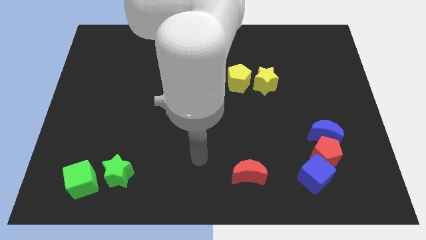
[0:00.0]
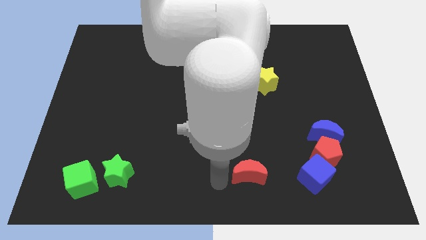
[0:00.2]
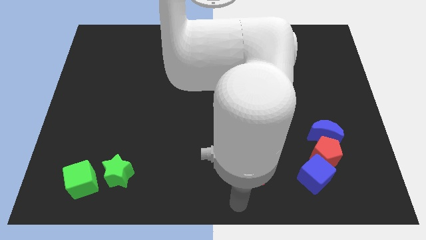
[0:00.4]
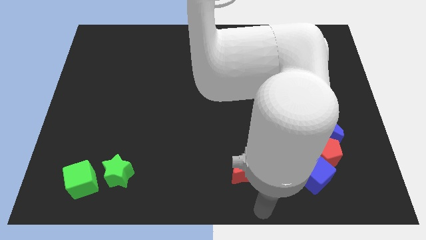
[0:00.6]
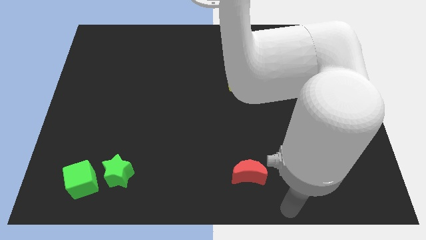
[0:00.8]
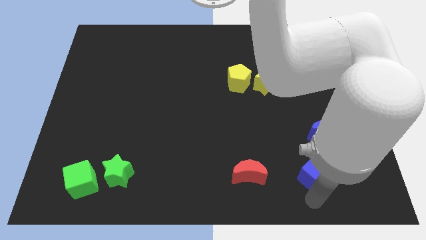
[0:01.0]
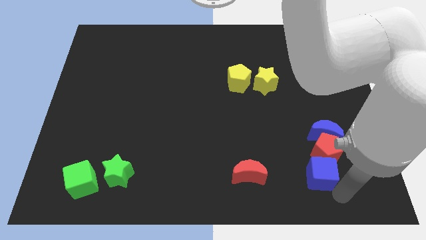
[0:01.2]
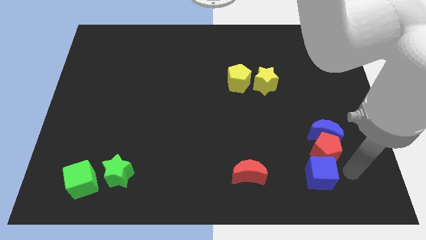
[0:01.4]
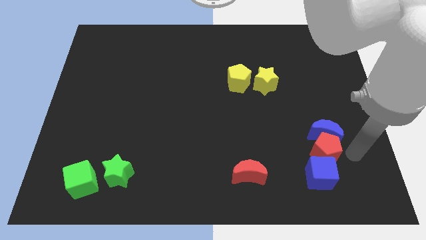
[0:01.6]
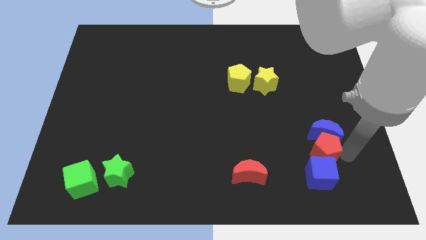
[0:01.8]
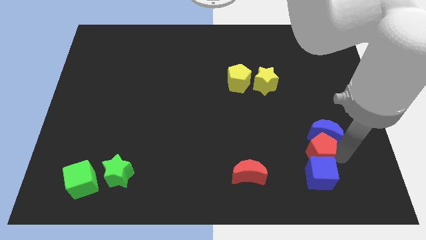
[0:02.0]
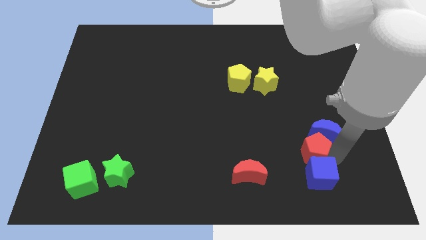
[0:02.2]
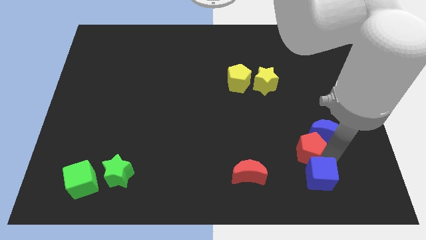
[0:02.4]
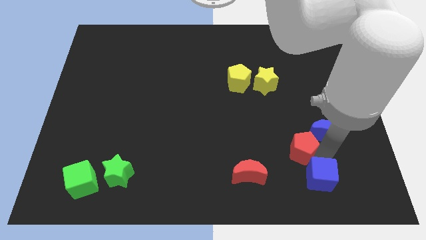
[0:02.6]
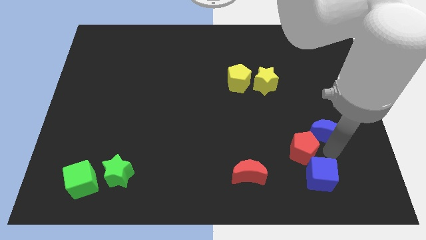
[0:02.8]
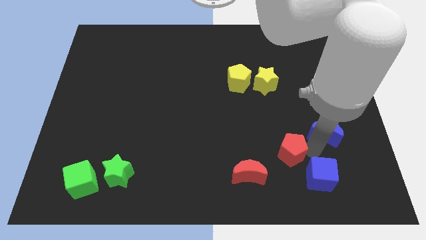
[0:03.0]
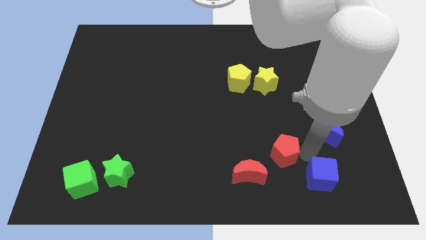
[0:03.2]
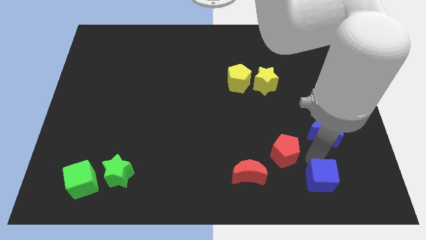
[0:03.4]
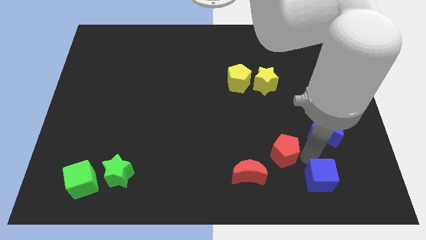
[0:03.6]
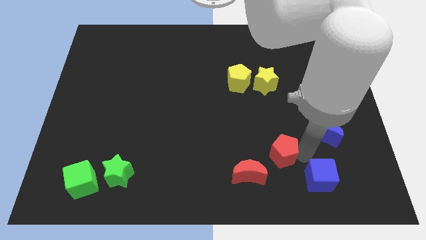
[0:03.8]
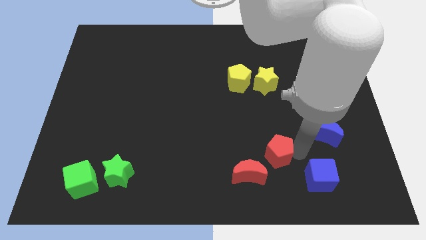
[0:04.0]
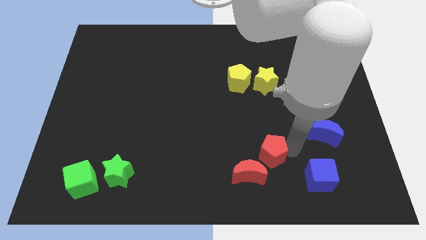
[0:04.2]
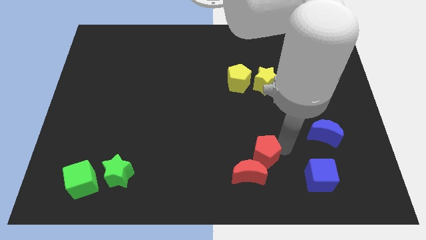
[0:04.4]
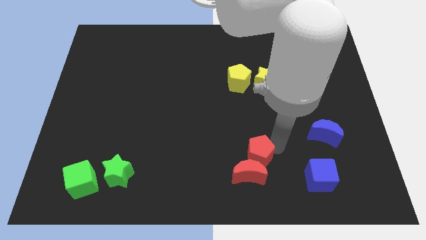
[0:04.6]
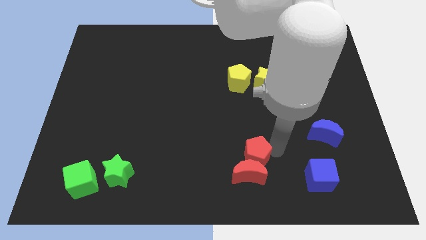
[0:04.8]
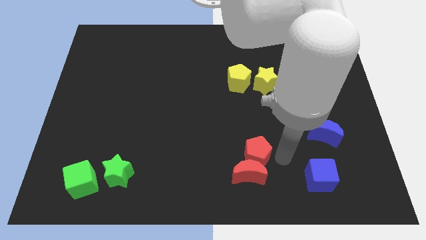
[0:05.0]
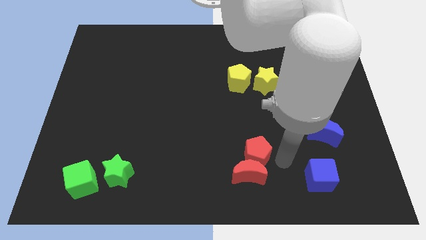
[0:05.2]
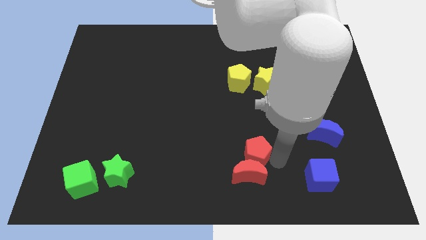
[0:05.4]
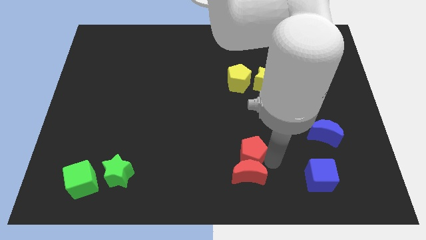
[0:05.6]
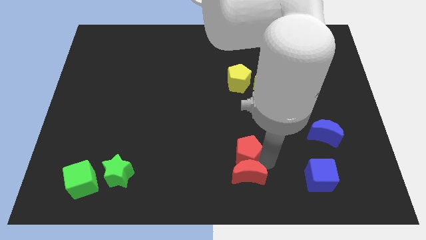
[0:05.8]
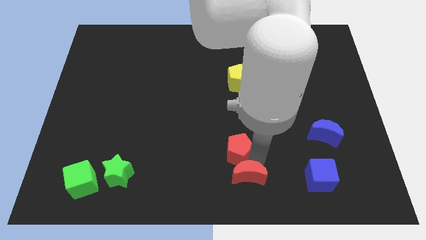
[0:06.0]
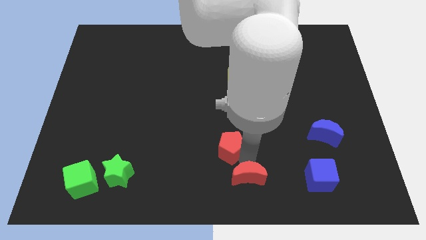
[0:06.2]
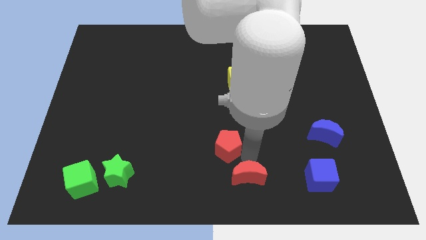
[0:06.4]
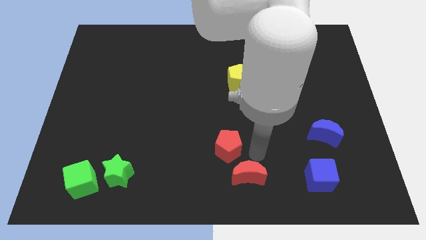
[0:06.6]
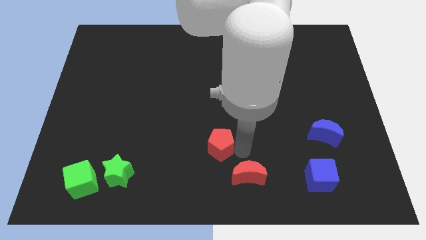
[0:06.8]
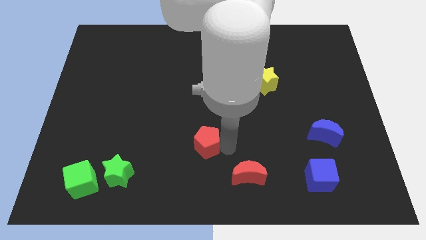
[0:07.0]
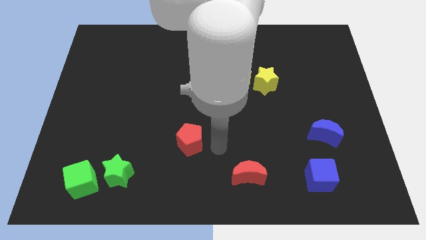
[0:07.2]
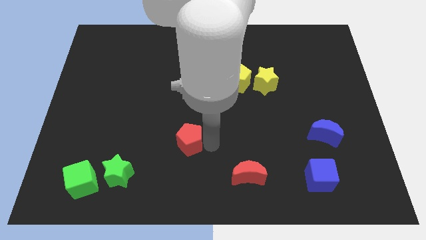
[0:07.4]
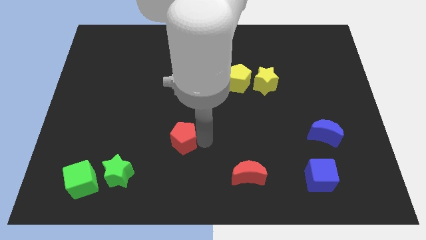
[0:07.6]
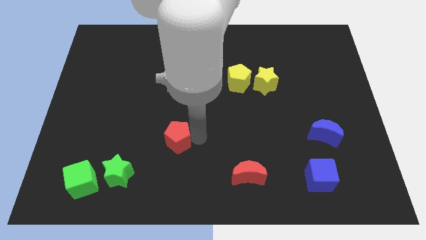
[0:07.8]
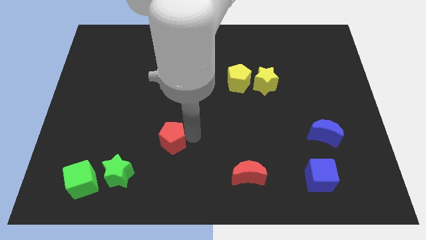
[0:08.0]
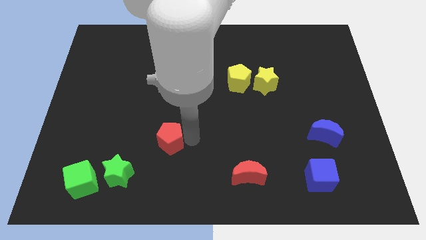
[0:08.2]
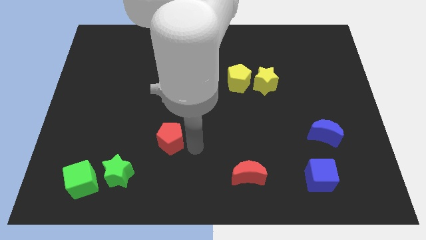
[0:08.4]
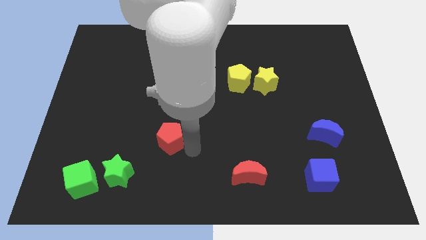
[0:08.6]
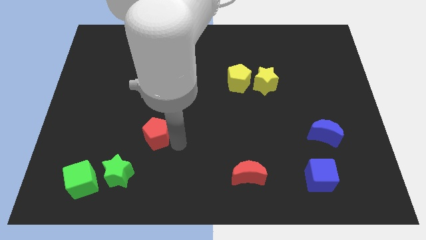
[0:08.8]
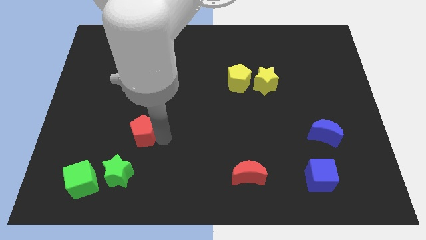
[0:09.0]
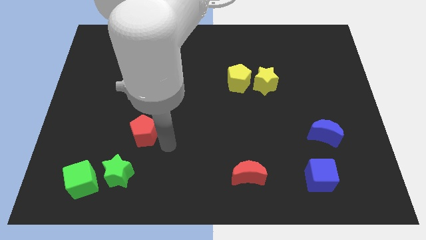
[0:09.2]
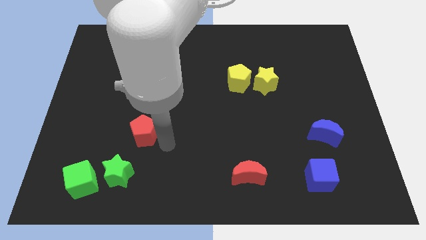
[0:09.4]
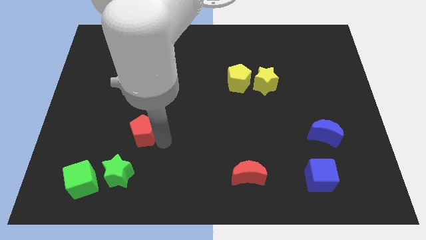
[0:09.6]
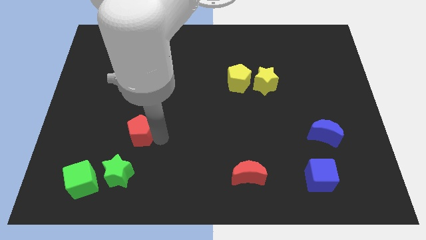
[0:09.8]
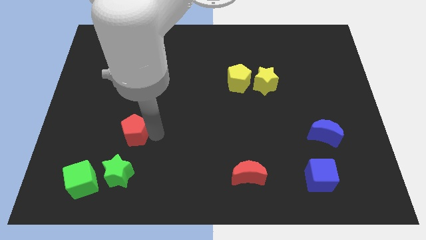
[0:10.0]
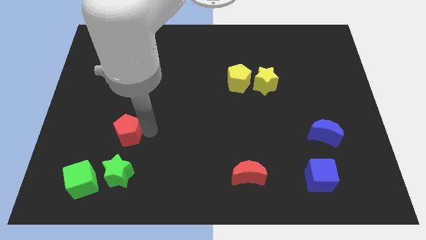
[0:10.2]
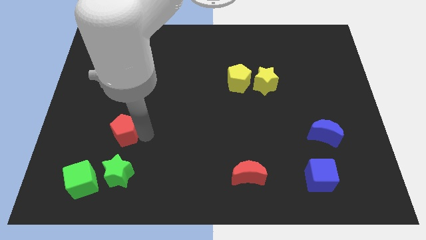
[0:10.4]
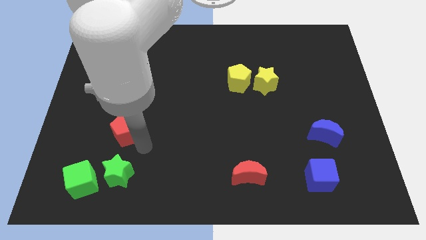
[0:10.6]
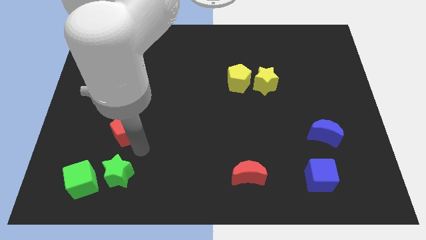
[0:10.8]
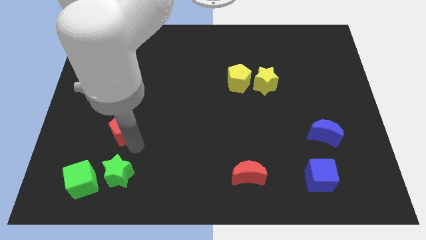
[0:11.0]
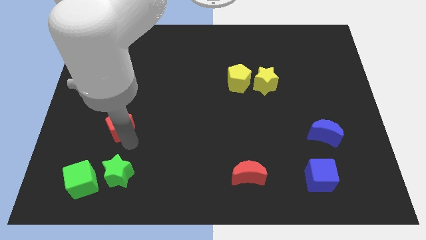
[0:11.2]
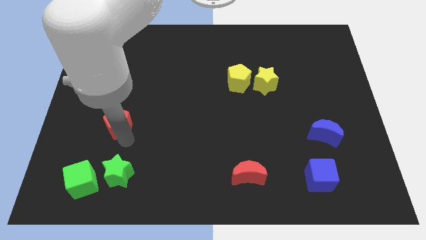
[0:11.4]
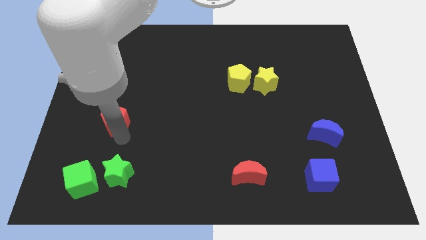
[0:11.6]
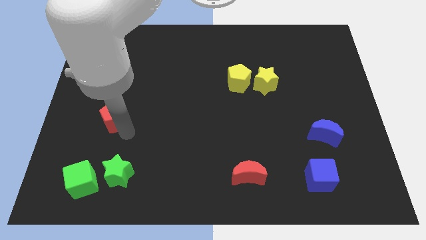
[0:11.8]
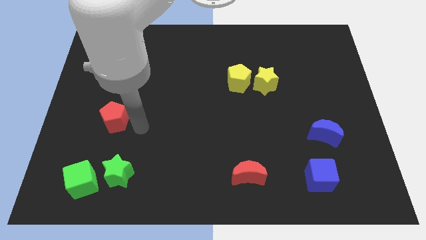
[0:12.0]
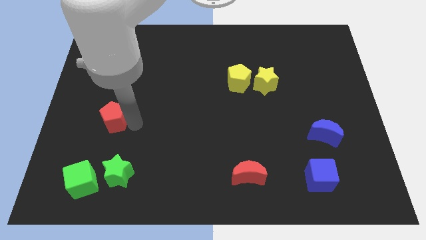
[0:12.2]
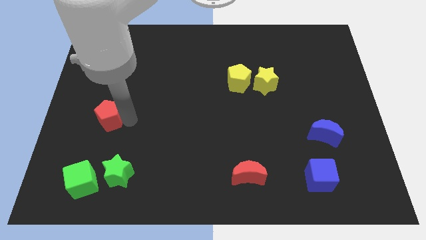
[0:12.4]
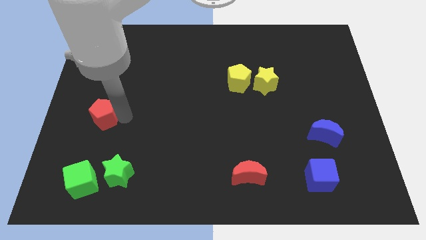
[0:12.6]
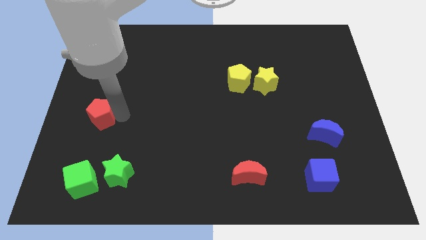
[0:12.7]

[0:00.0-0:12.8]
put the red pentagon to the left side
